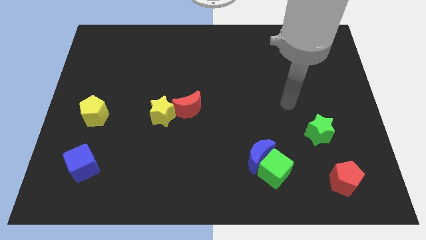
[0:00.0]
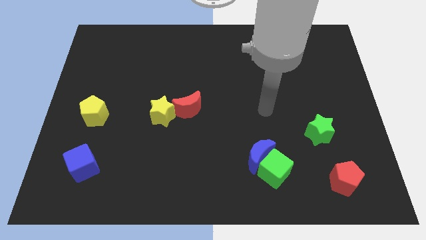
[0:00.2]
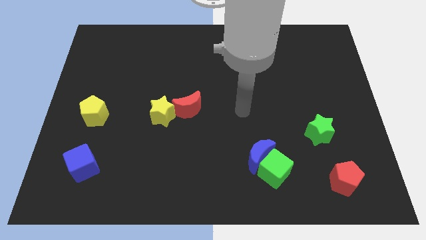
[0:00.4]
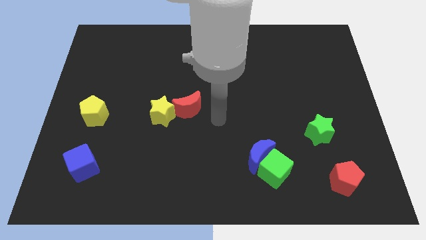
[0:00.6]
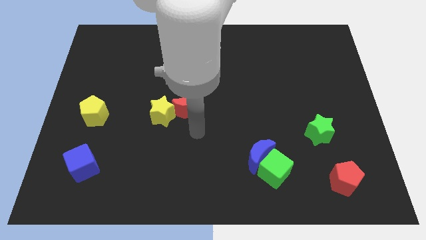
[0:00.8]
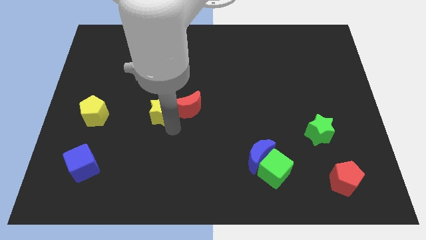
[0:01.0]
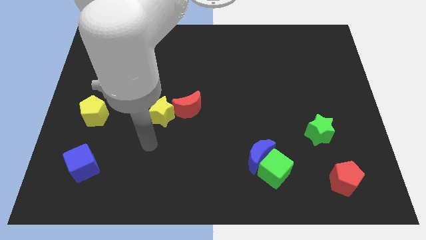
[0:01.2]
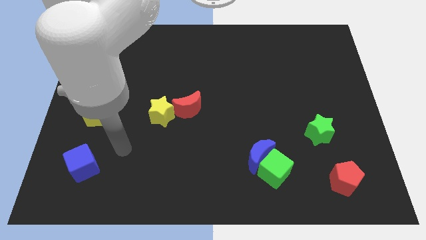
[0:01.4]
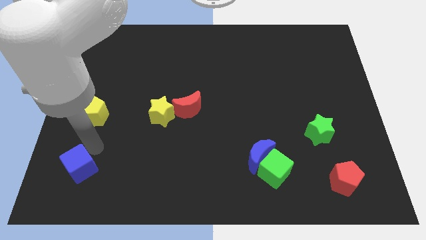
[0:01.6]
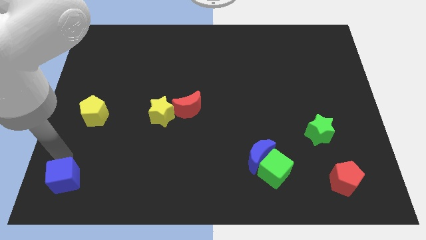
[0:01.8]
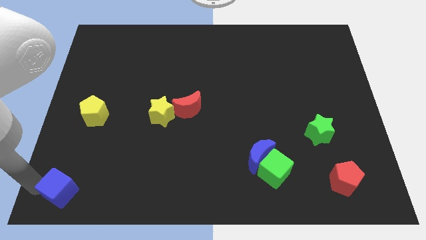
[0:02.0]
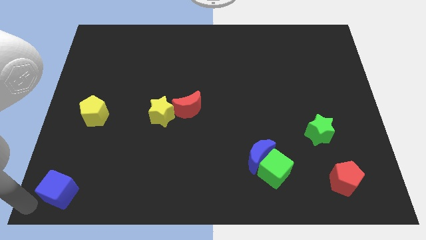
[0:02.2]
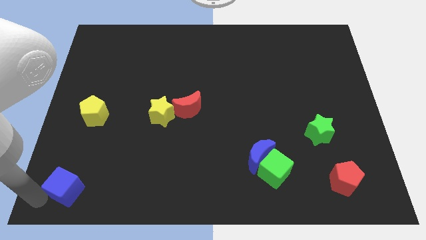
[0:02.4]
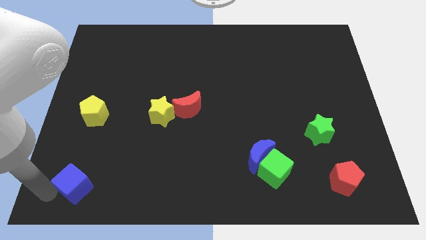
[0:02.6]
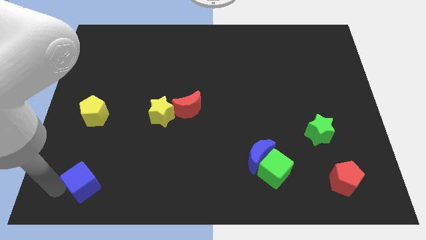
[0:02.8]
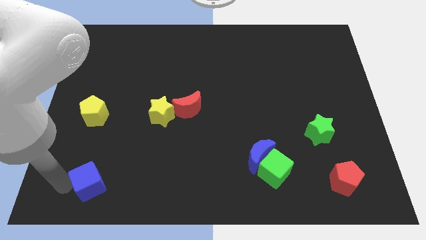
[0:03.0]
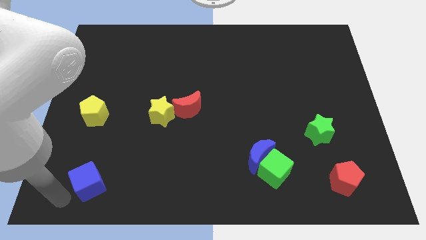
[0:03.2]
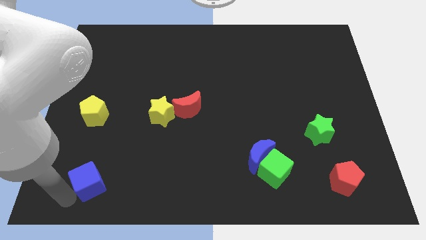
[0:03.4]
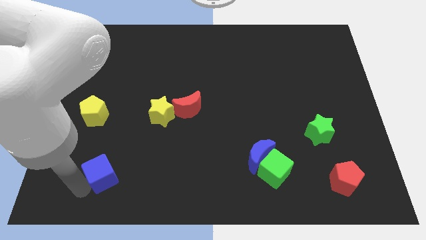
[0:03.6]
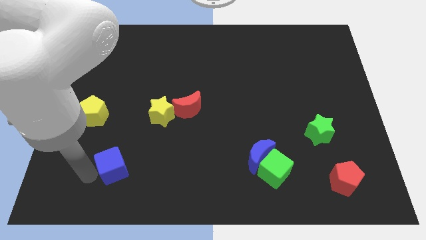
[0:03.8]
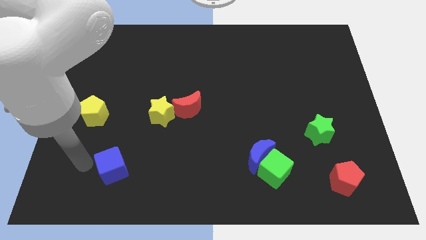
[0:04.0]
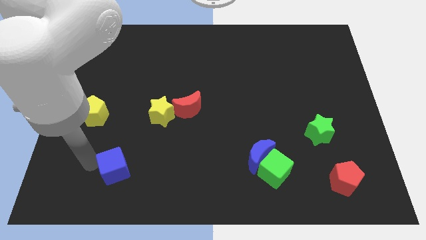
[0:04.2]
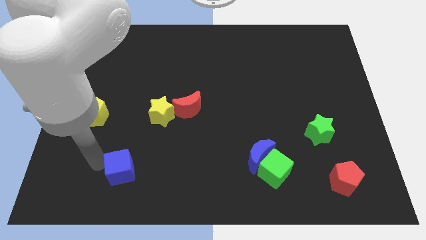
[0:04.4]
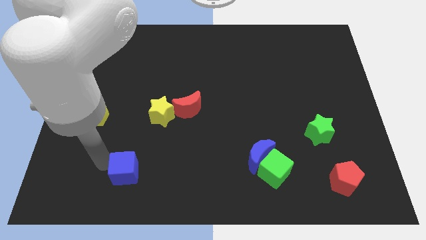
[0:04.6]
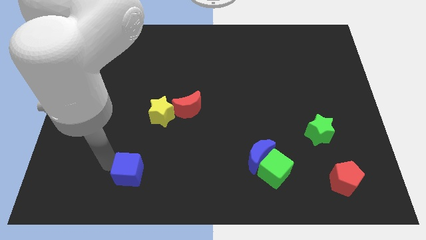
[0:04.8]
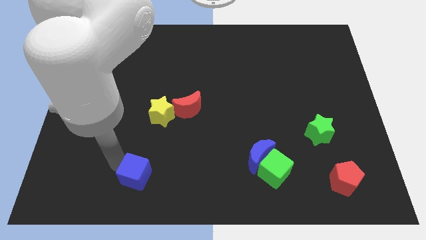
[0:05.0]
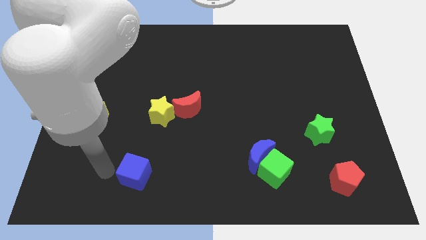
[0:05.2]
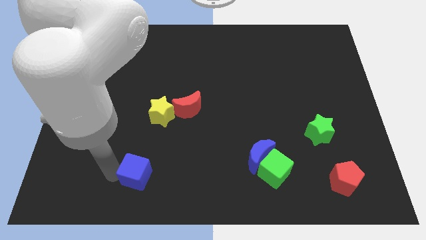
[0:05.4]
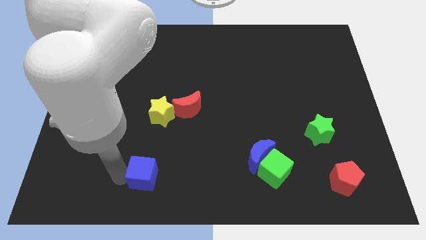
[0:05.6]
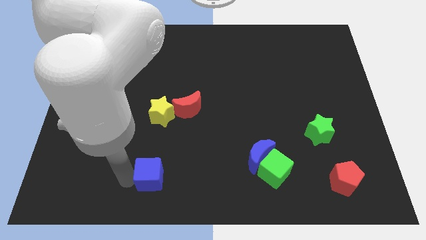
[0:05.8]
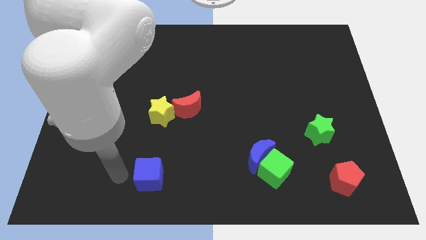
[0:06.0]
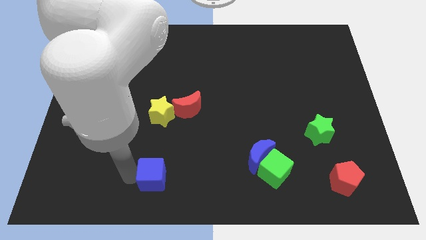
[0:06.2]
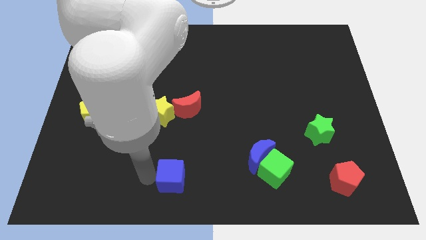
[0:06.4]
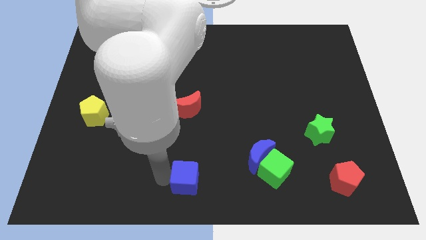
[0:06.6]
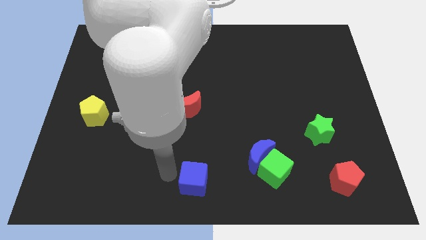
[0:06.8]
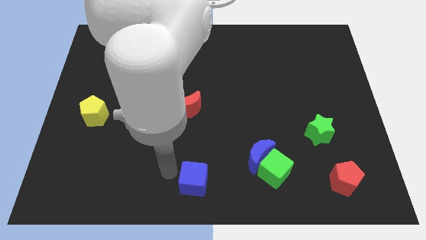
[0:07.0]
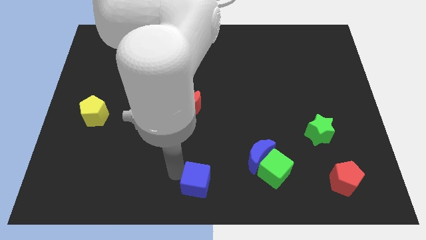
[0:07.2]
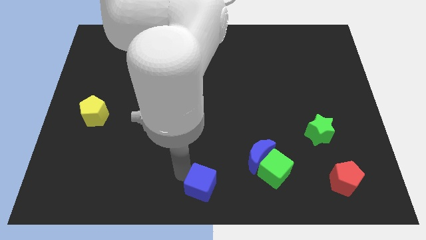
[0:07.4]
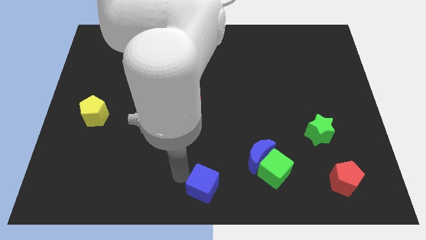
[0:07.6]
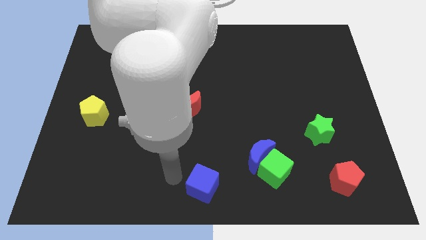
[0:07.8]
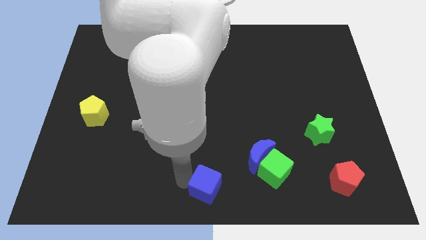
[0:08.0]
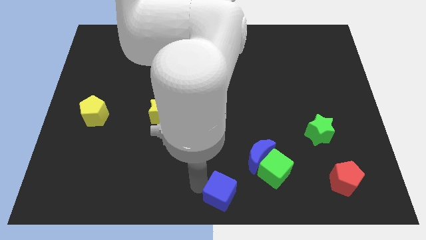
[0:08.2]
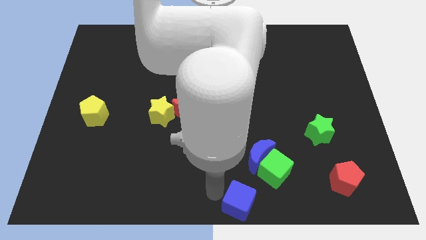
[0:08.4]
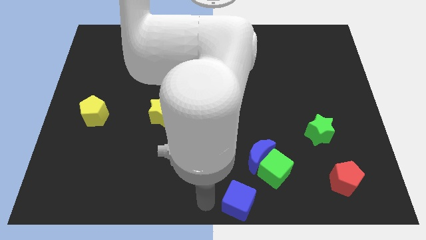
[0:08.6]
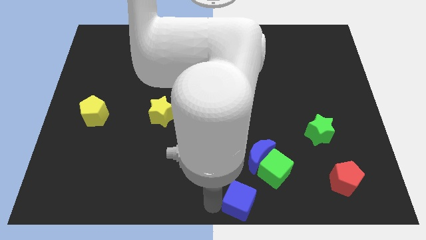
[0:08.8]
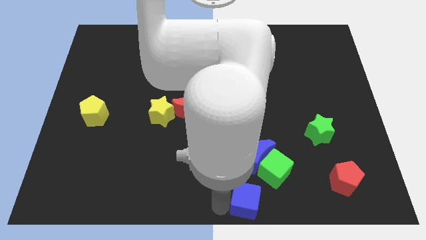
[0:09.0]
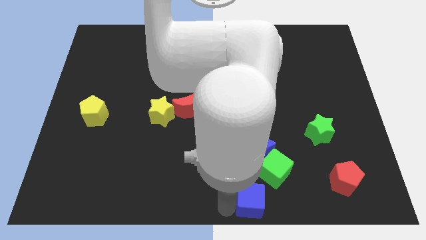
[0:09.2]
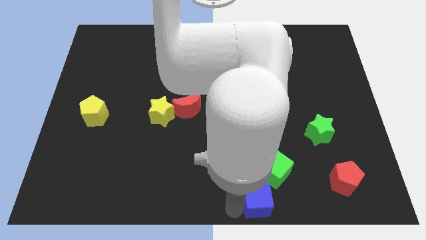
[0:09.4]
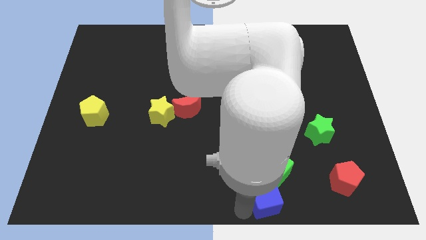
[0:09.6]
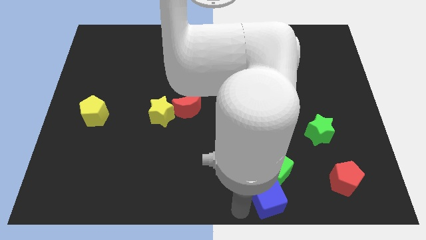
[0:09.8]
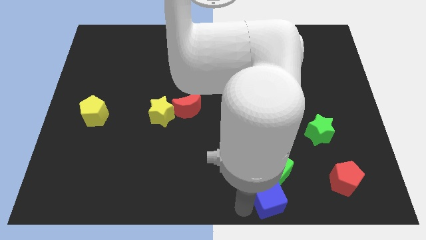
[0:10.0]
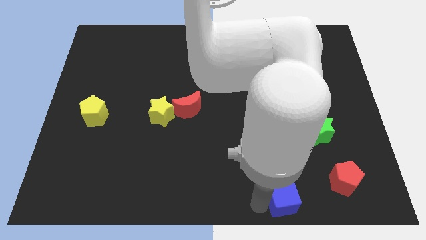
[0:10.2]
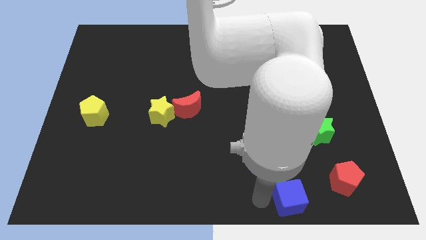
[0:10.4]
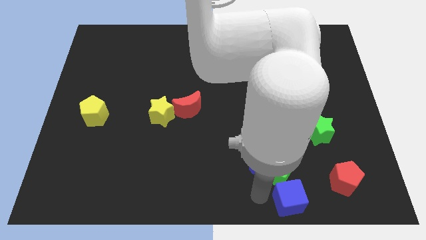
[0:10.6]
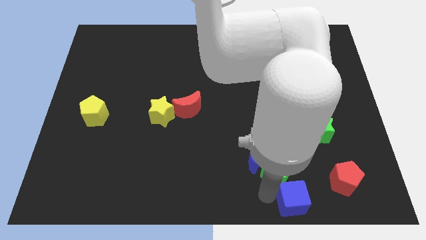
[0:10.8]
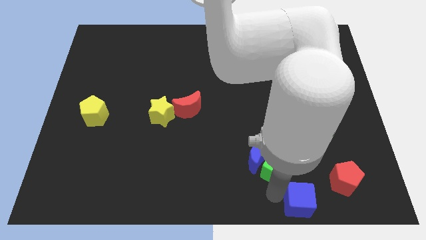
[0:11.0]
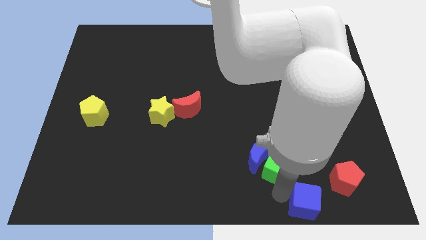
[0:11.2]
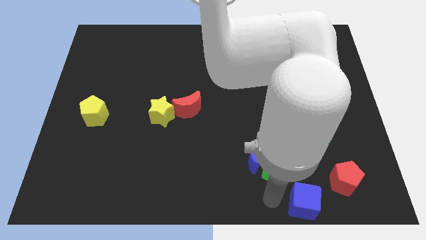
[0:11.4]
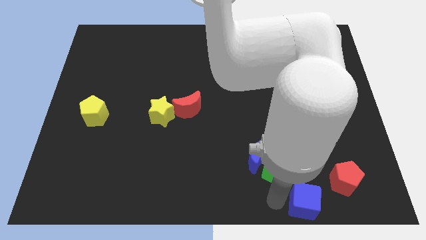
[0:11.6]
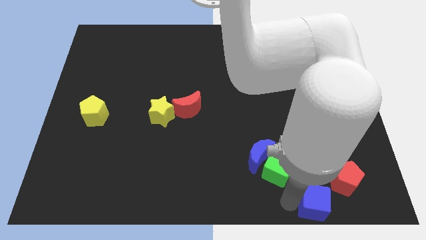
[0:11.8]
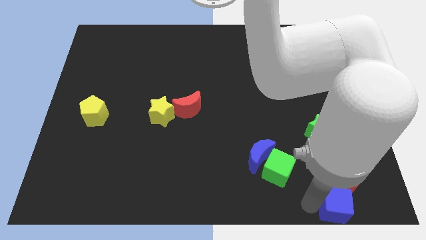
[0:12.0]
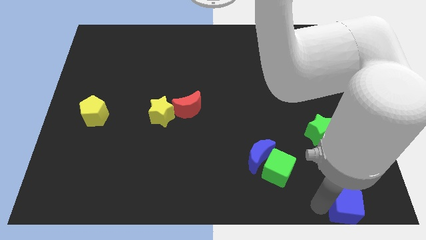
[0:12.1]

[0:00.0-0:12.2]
move the blue cube to the bottom right corner

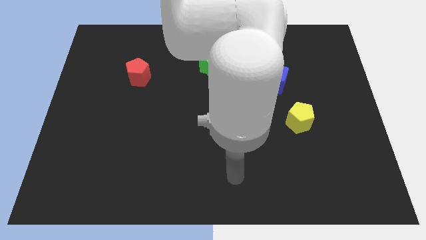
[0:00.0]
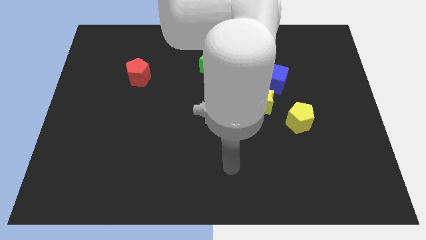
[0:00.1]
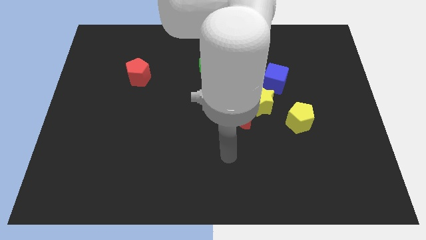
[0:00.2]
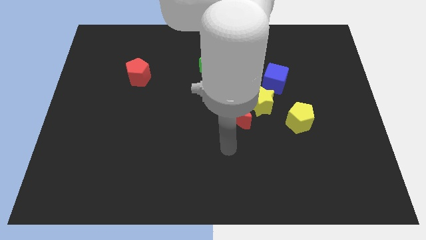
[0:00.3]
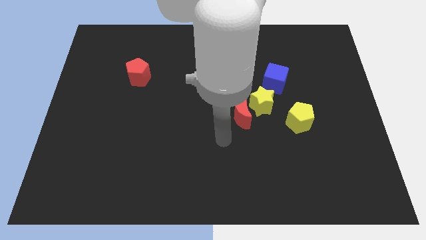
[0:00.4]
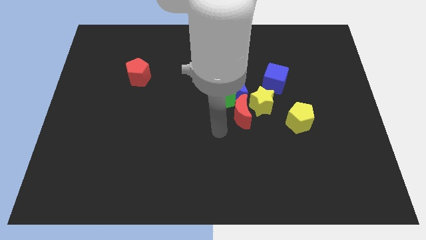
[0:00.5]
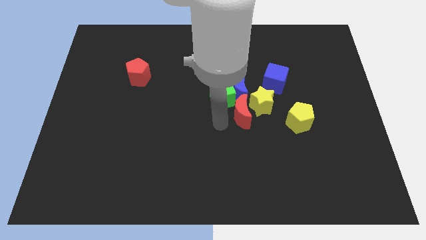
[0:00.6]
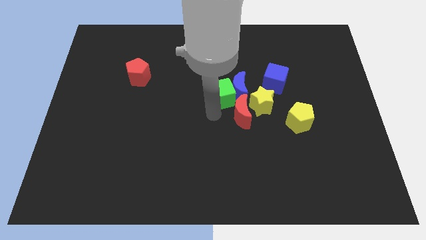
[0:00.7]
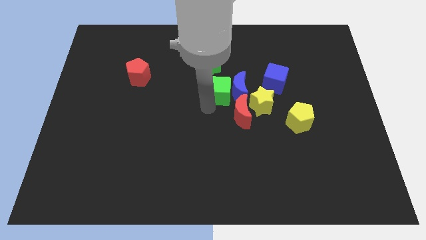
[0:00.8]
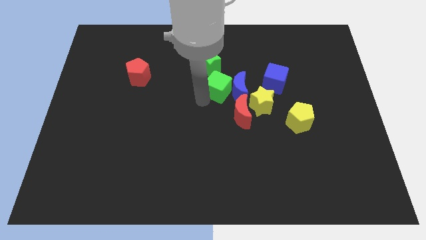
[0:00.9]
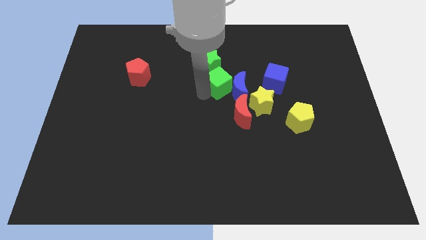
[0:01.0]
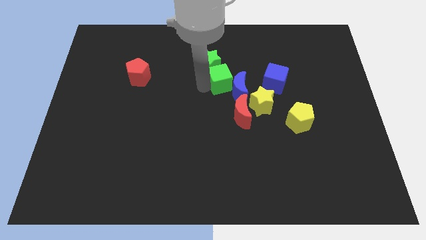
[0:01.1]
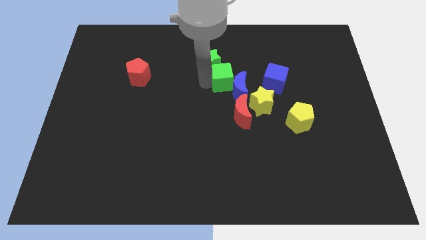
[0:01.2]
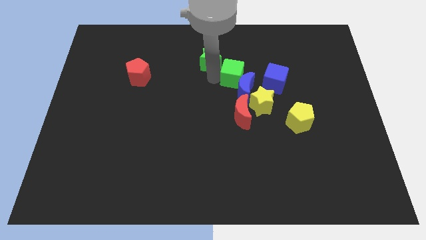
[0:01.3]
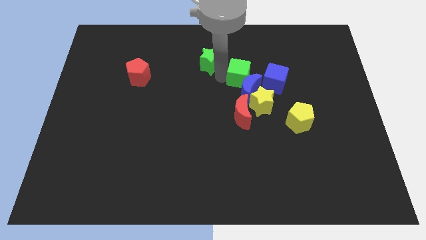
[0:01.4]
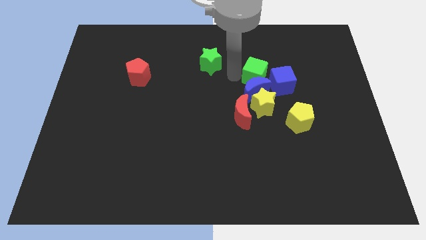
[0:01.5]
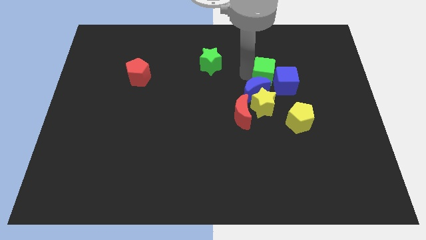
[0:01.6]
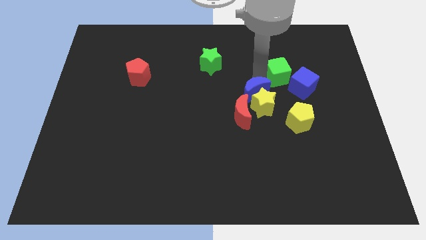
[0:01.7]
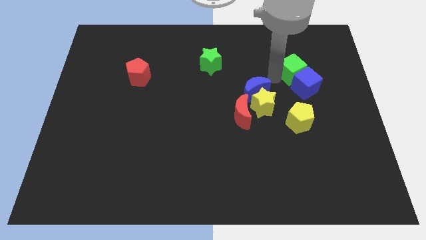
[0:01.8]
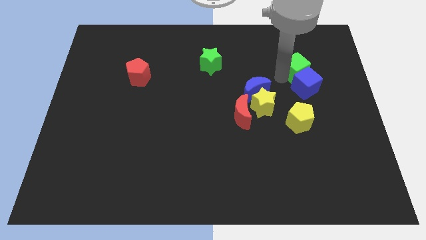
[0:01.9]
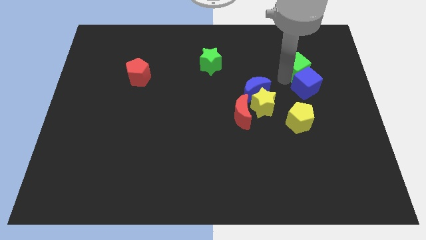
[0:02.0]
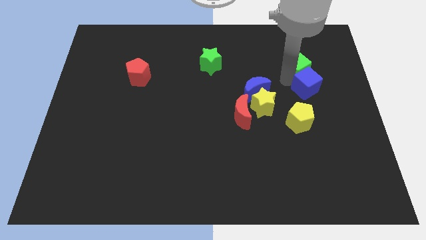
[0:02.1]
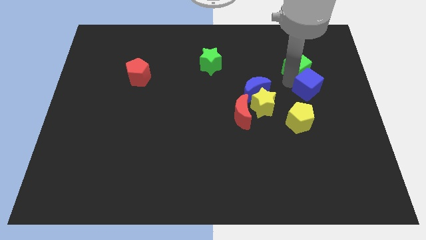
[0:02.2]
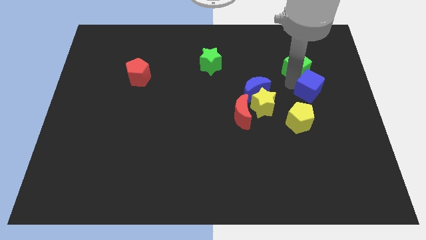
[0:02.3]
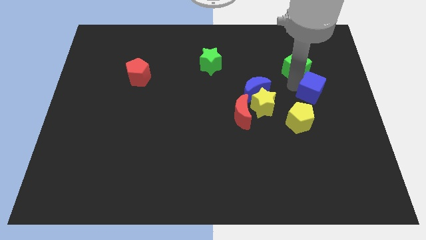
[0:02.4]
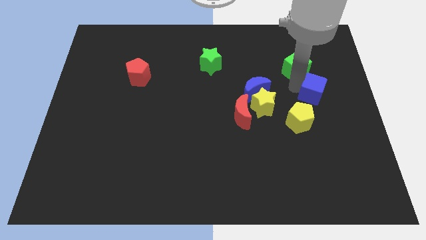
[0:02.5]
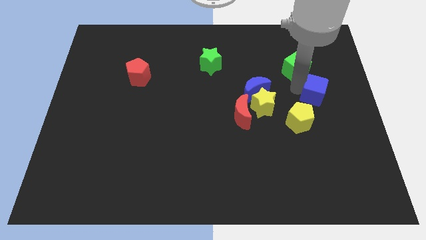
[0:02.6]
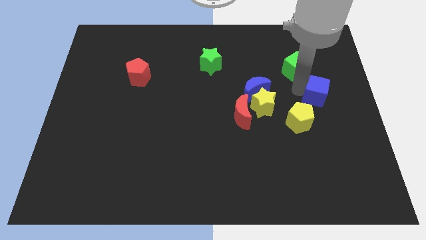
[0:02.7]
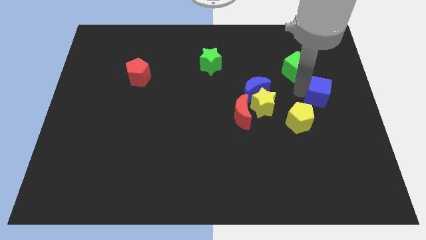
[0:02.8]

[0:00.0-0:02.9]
put the blue cube to the right side
